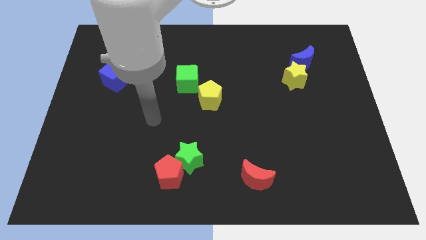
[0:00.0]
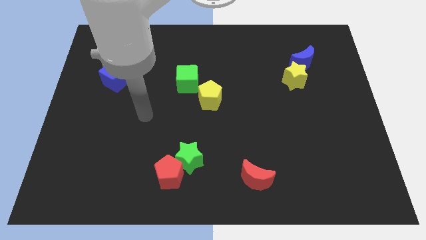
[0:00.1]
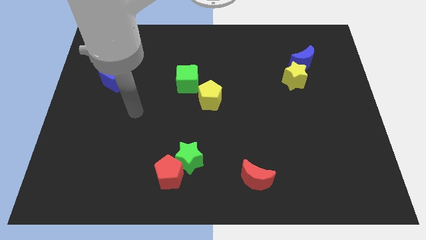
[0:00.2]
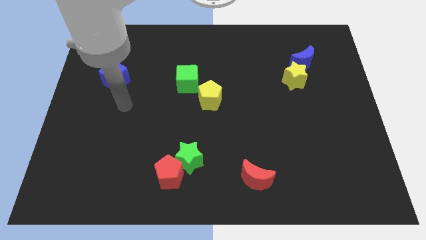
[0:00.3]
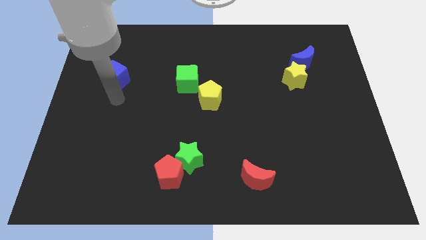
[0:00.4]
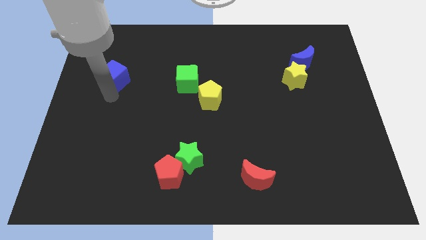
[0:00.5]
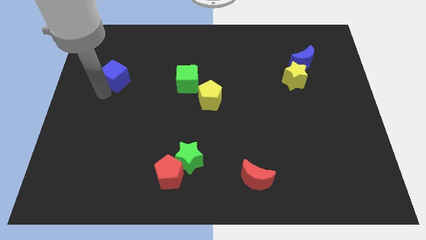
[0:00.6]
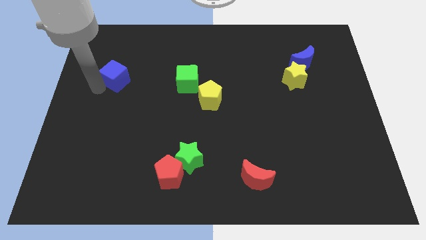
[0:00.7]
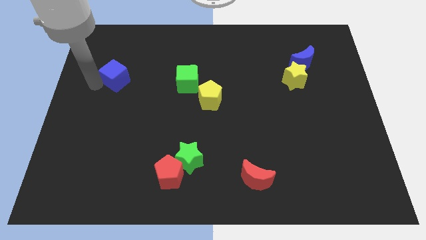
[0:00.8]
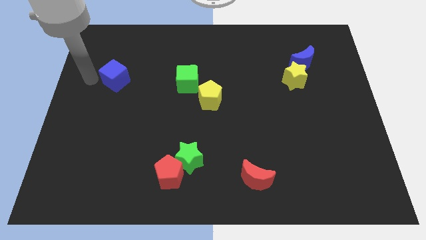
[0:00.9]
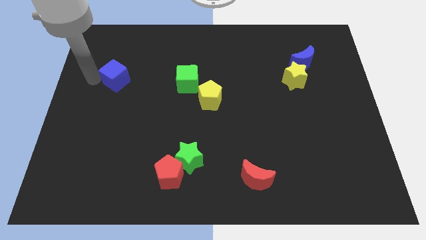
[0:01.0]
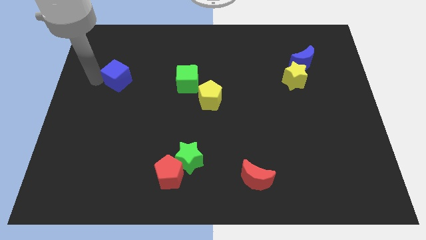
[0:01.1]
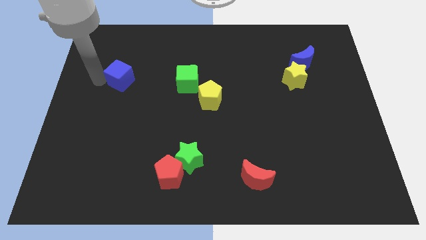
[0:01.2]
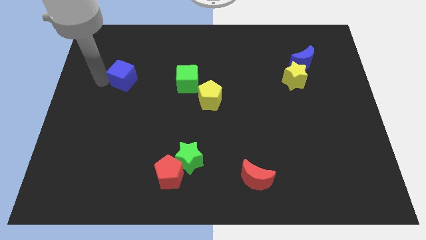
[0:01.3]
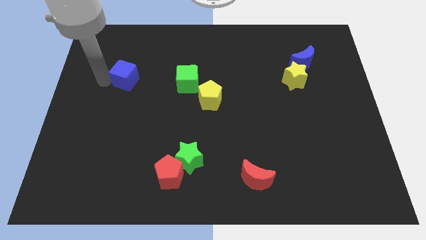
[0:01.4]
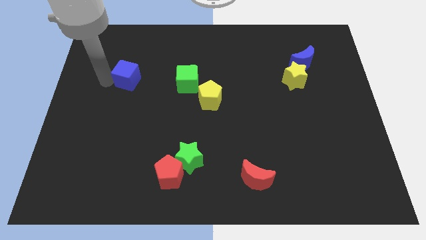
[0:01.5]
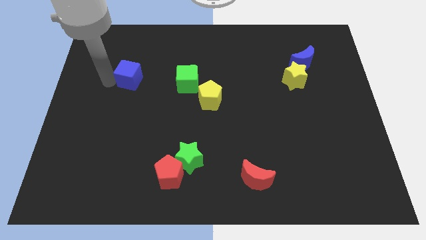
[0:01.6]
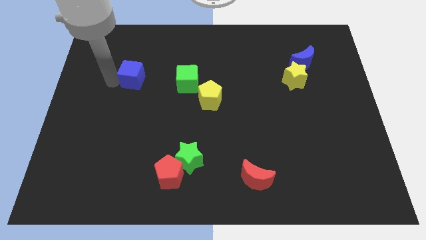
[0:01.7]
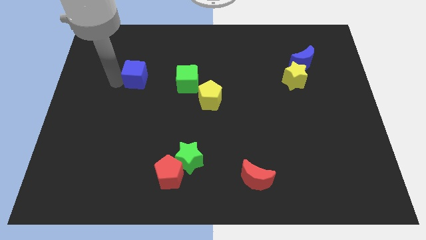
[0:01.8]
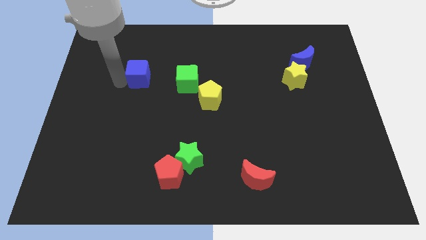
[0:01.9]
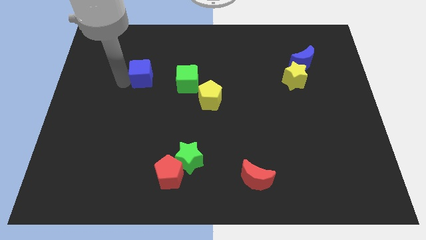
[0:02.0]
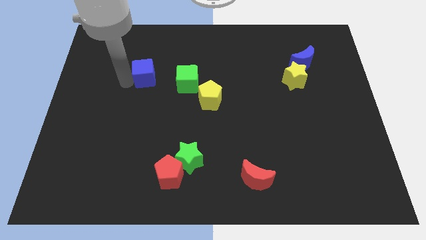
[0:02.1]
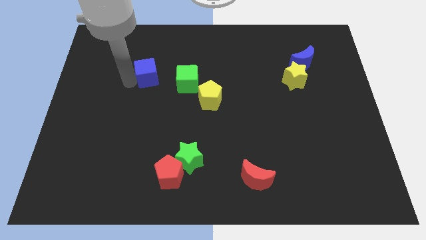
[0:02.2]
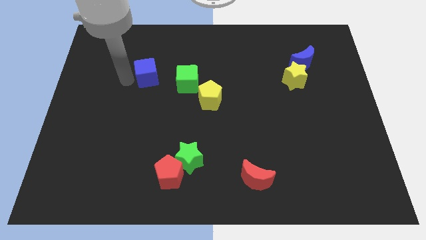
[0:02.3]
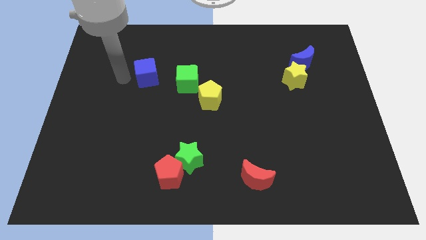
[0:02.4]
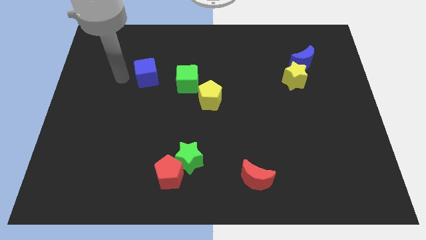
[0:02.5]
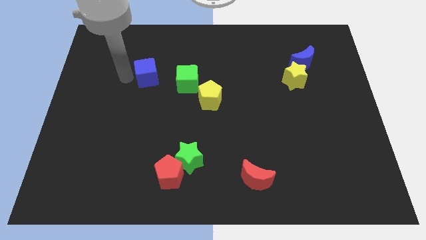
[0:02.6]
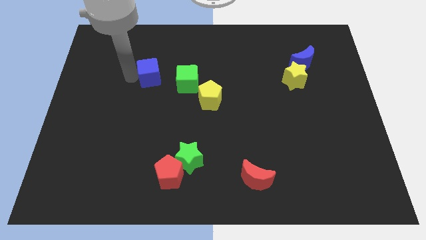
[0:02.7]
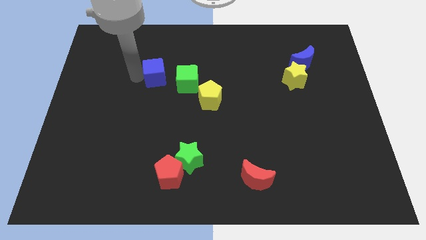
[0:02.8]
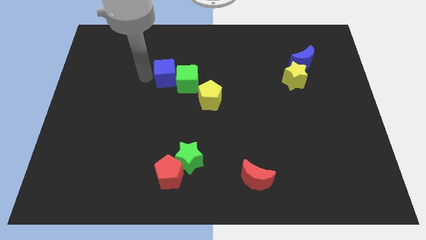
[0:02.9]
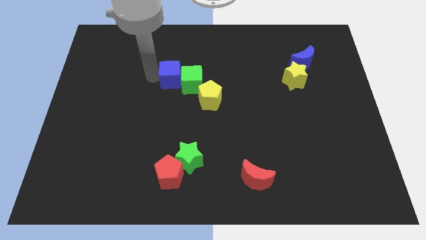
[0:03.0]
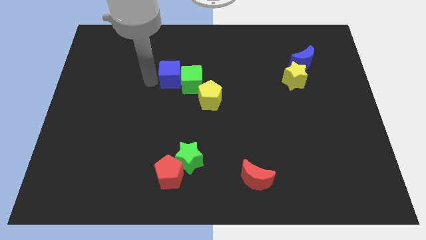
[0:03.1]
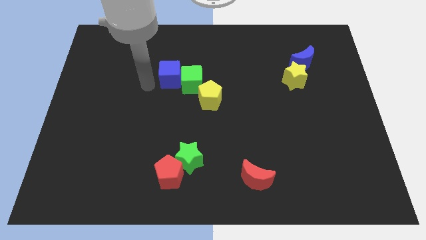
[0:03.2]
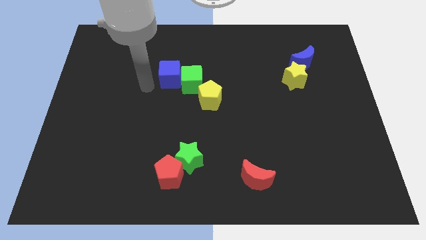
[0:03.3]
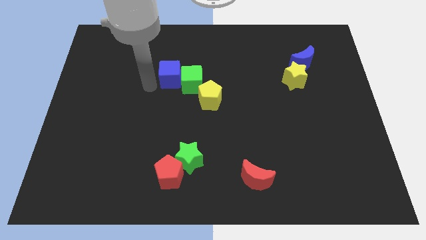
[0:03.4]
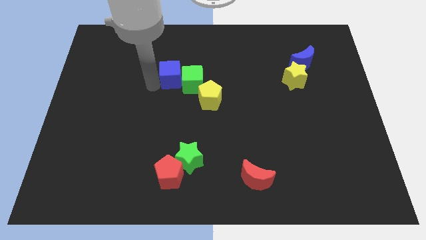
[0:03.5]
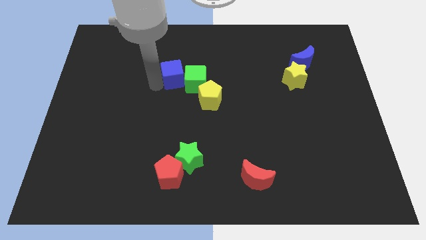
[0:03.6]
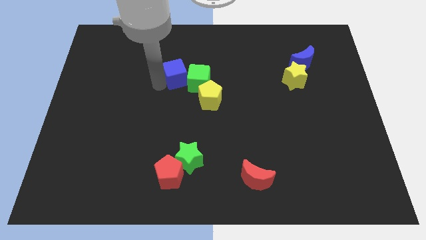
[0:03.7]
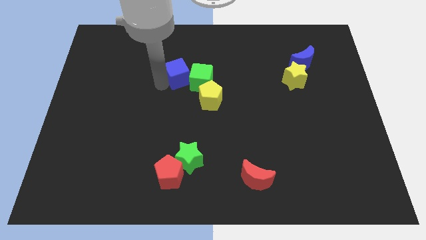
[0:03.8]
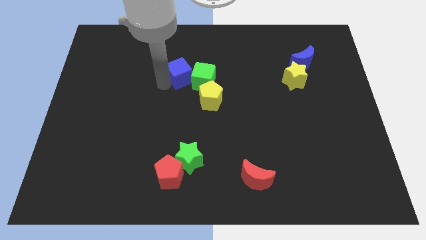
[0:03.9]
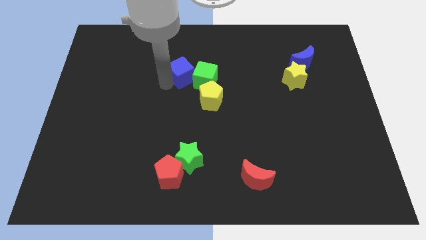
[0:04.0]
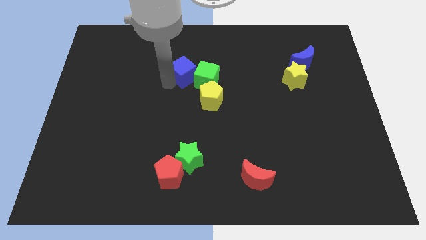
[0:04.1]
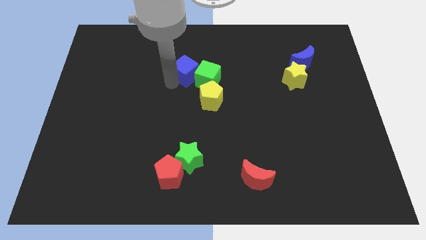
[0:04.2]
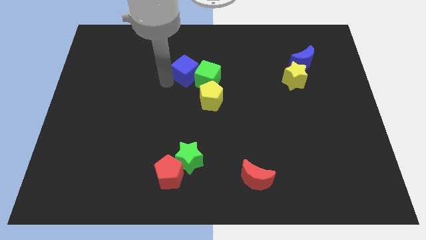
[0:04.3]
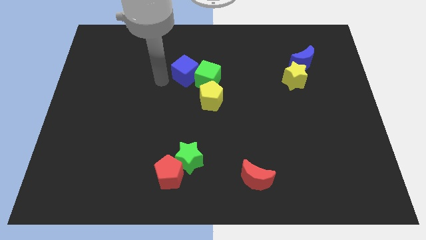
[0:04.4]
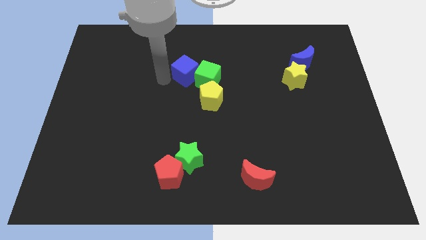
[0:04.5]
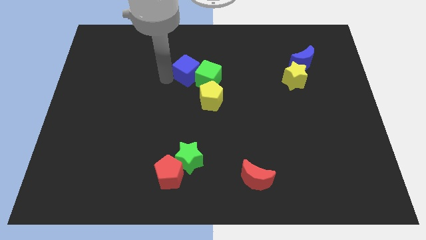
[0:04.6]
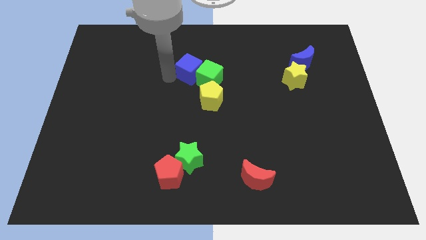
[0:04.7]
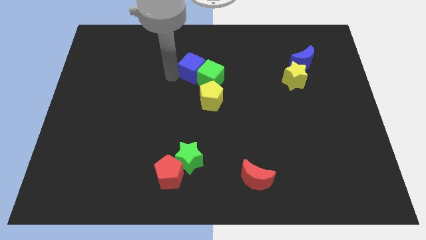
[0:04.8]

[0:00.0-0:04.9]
push the blue cube to the top of the yellow pentagon

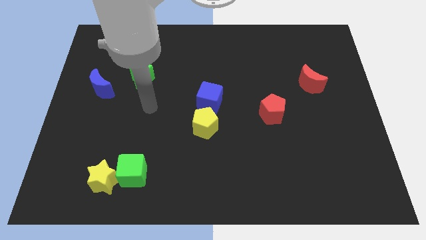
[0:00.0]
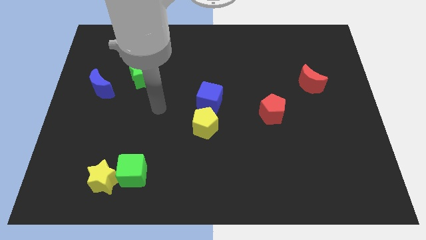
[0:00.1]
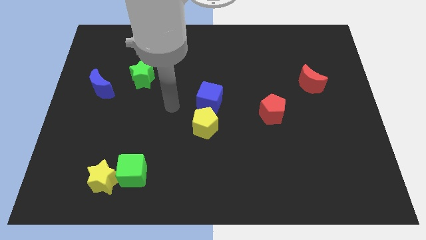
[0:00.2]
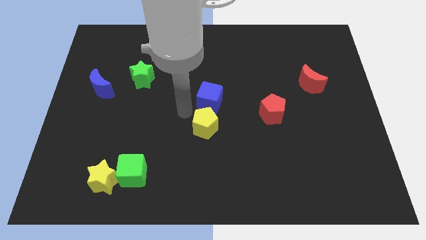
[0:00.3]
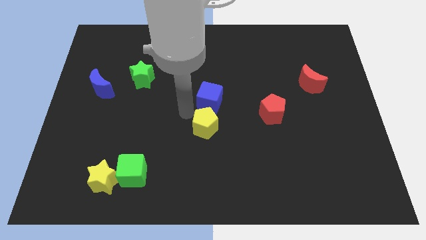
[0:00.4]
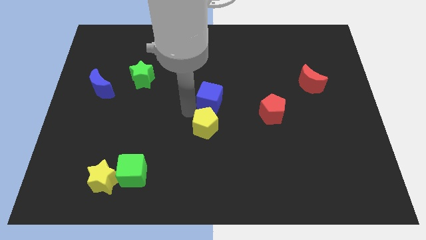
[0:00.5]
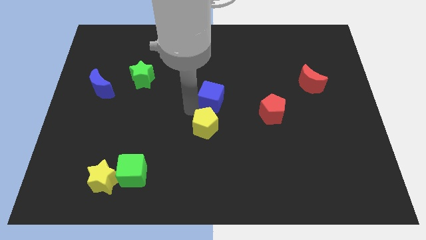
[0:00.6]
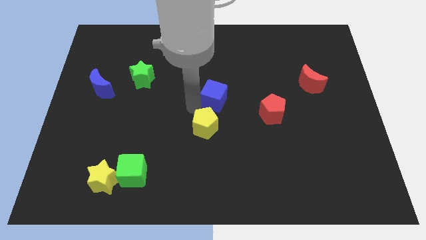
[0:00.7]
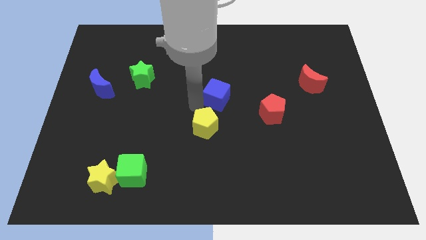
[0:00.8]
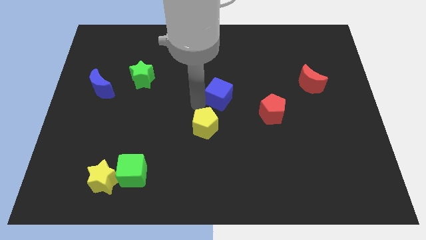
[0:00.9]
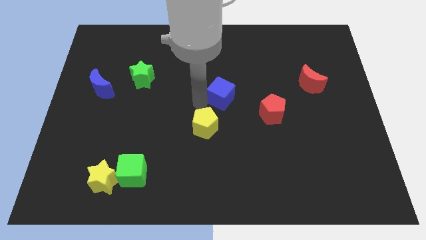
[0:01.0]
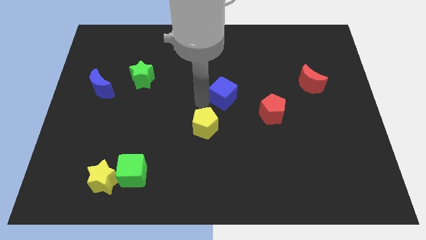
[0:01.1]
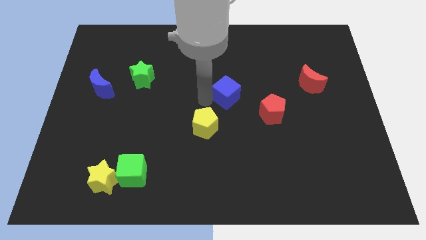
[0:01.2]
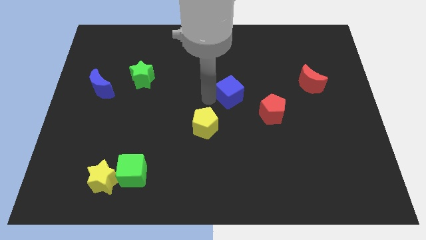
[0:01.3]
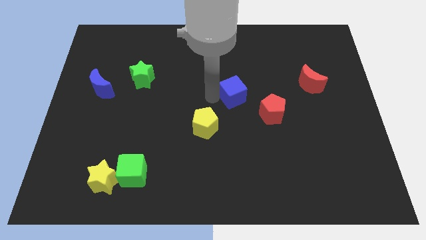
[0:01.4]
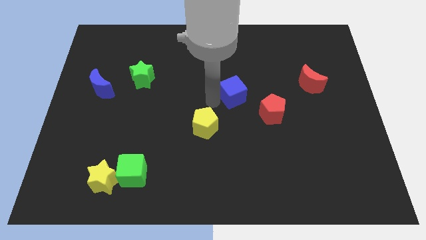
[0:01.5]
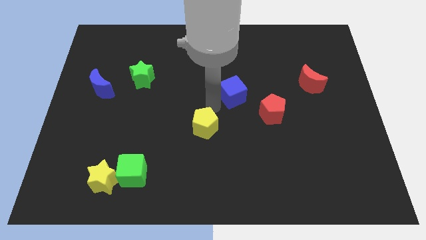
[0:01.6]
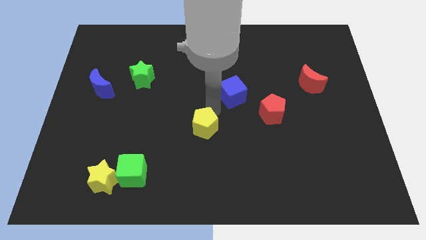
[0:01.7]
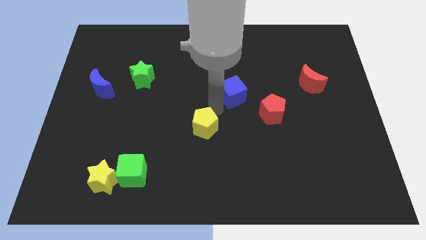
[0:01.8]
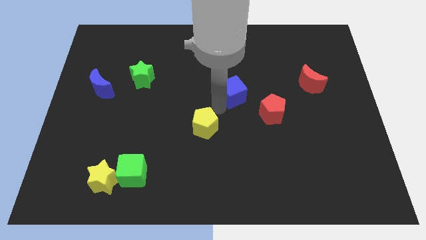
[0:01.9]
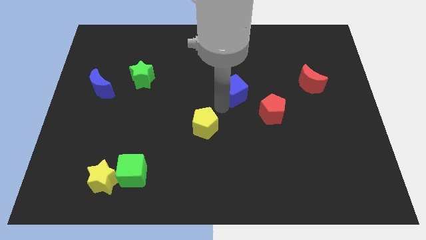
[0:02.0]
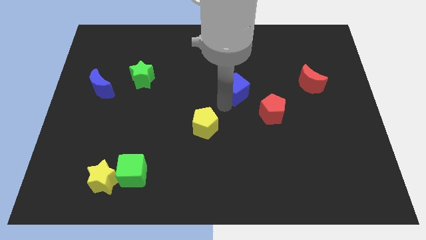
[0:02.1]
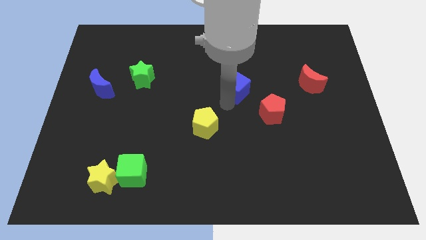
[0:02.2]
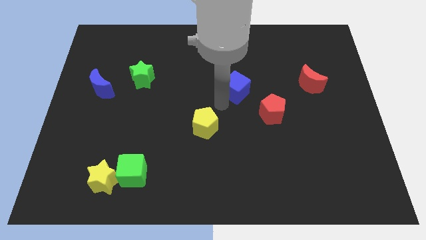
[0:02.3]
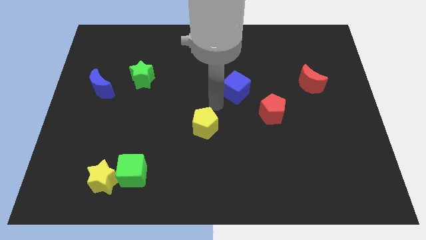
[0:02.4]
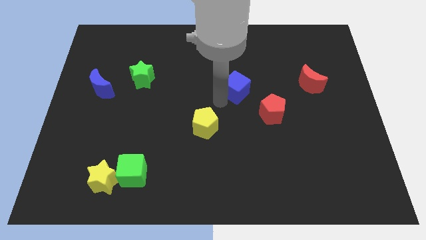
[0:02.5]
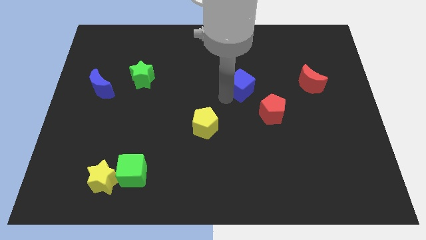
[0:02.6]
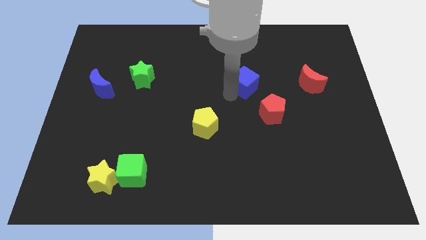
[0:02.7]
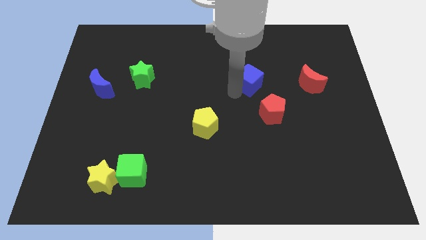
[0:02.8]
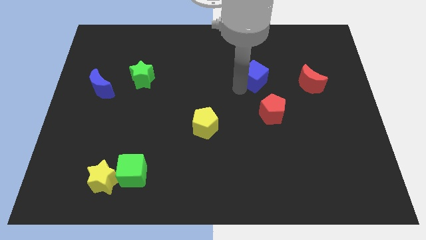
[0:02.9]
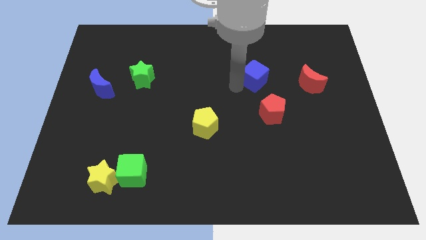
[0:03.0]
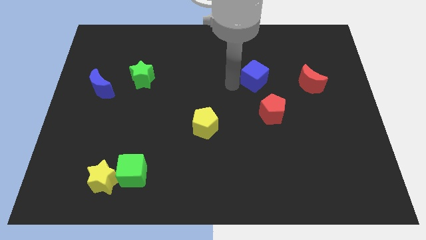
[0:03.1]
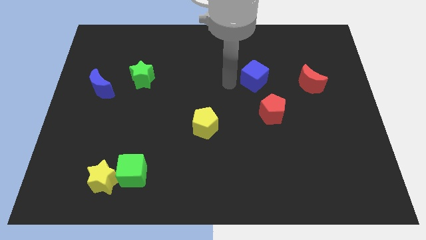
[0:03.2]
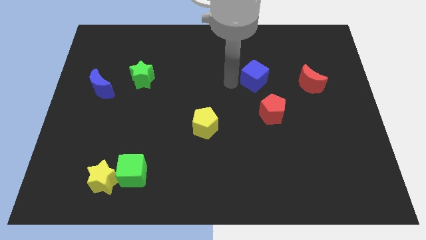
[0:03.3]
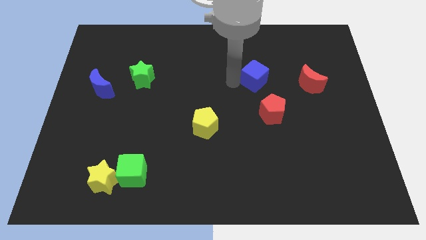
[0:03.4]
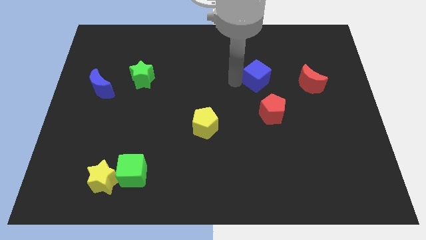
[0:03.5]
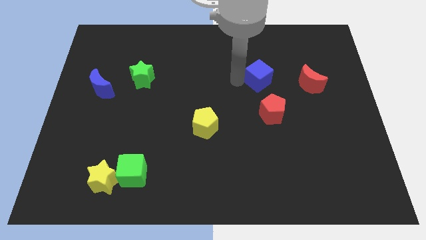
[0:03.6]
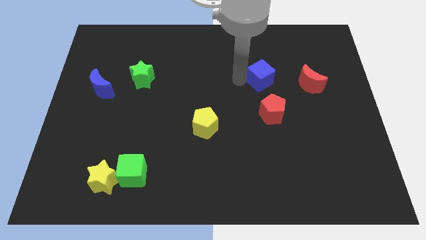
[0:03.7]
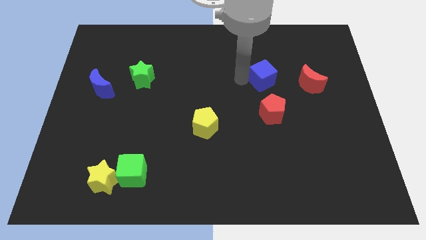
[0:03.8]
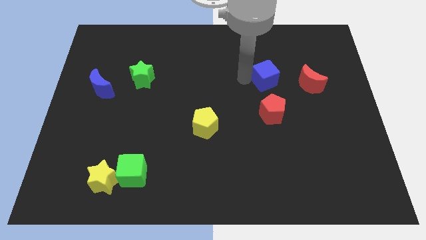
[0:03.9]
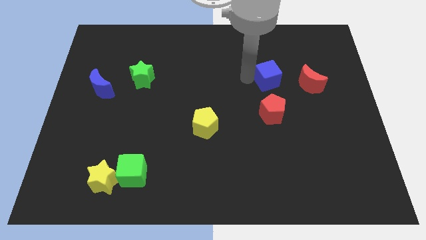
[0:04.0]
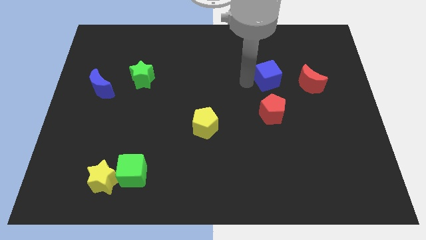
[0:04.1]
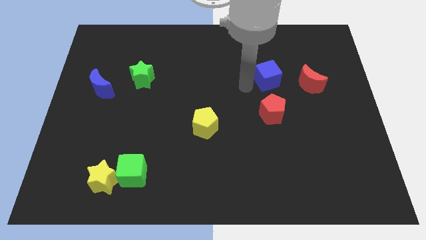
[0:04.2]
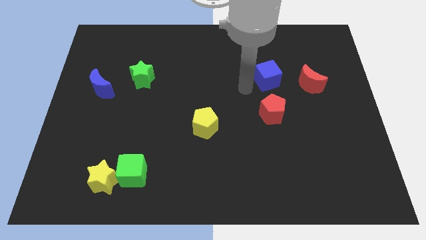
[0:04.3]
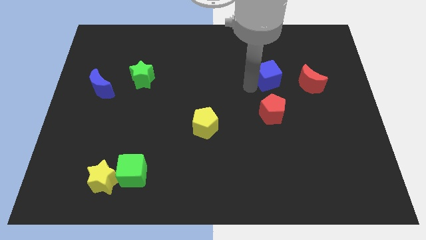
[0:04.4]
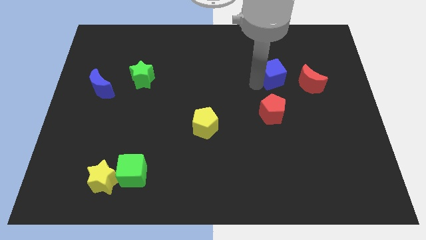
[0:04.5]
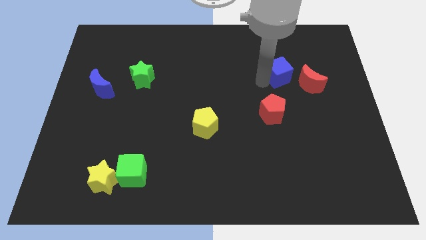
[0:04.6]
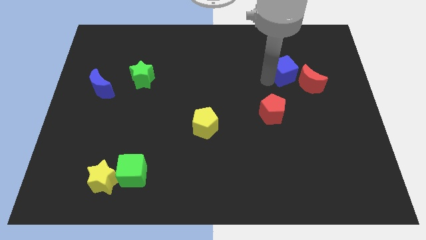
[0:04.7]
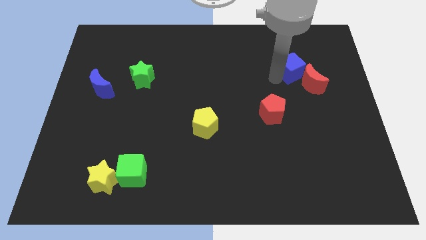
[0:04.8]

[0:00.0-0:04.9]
slide the blue cube to the top side of the red moon
